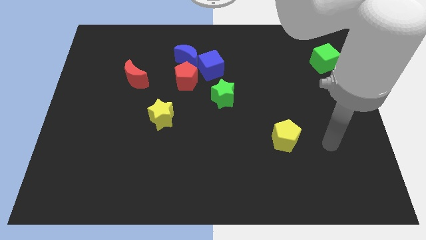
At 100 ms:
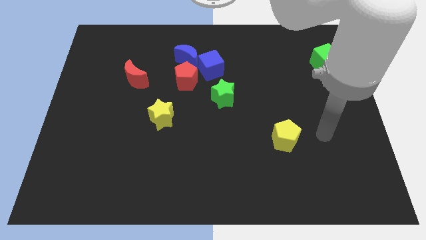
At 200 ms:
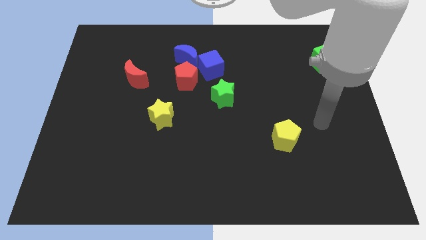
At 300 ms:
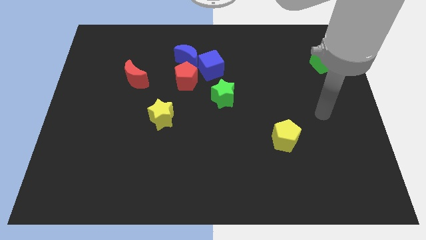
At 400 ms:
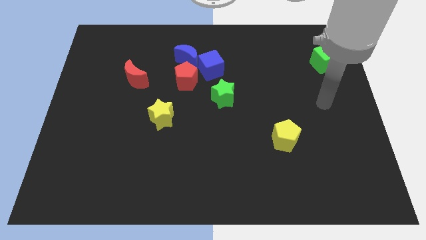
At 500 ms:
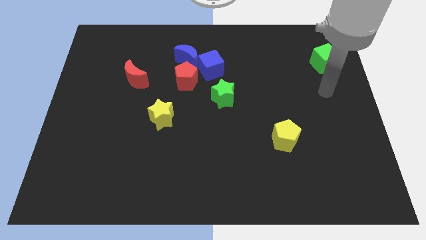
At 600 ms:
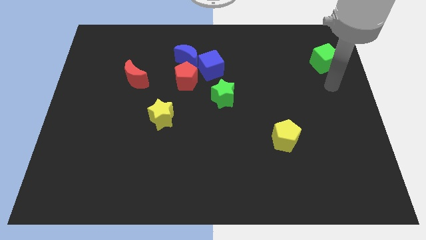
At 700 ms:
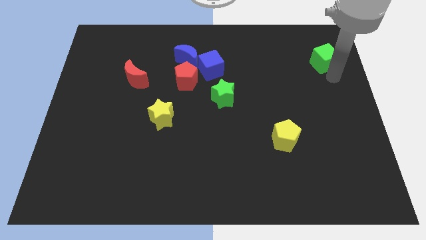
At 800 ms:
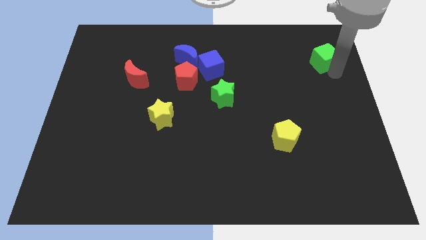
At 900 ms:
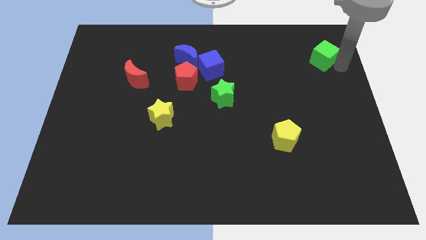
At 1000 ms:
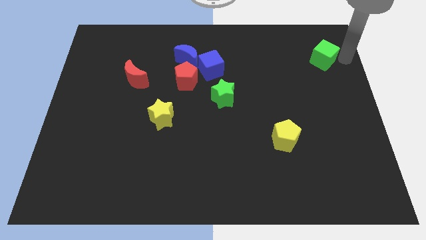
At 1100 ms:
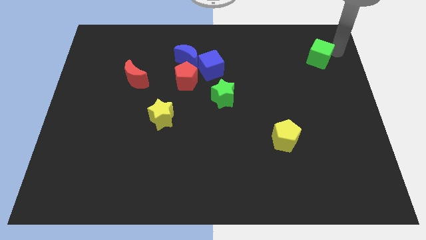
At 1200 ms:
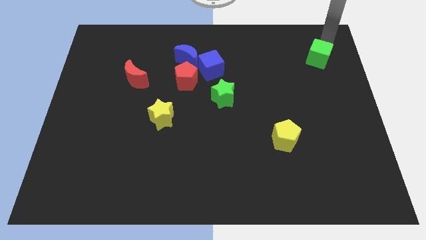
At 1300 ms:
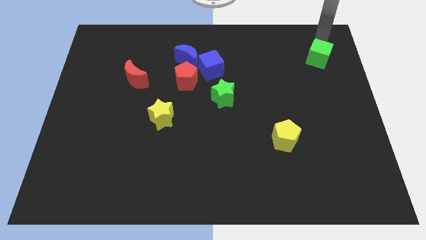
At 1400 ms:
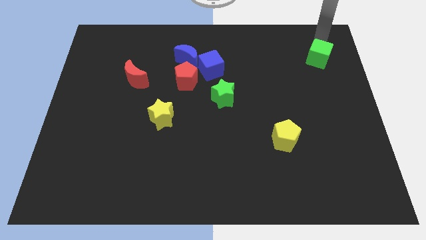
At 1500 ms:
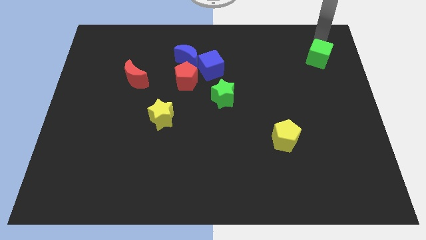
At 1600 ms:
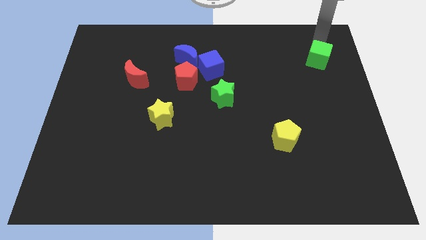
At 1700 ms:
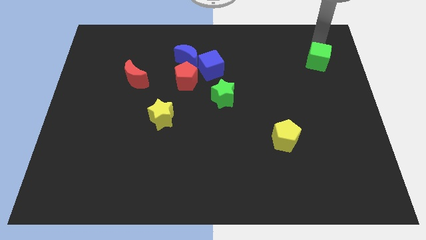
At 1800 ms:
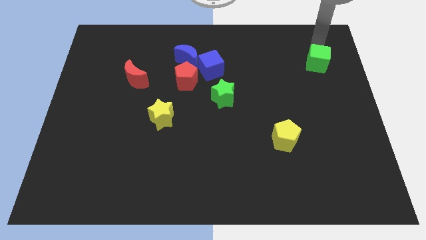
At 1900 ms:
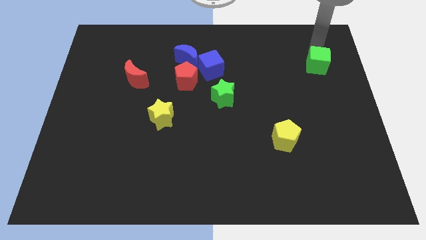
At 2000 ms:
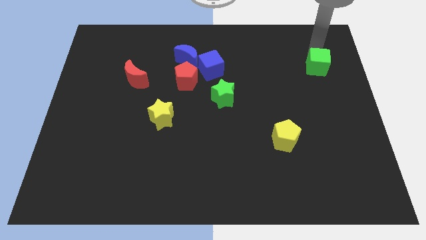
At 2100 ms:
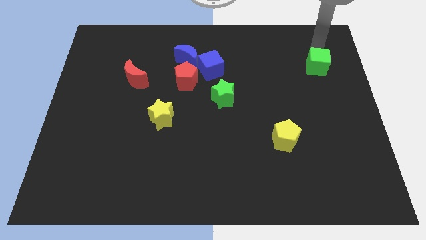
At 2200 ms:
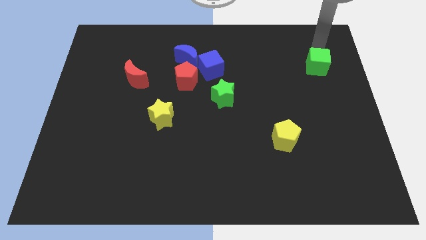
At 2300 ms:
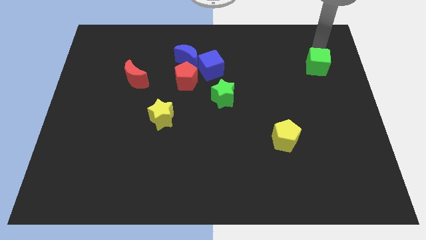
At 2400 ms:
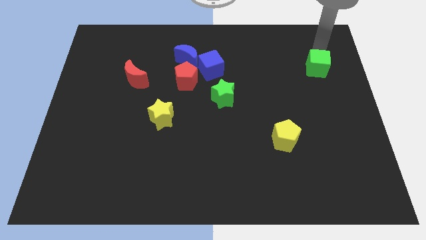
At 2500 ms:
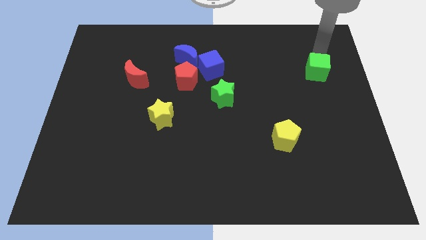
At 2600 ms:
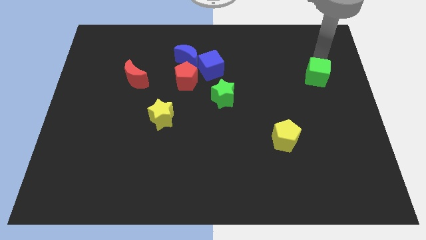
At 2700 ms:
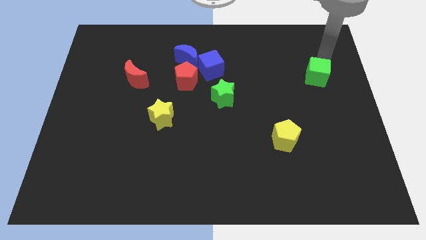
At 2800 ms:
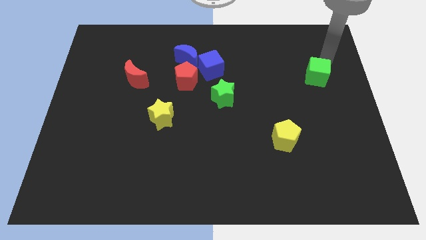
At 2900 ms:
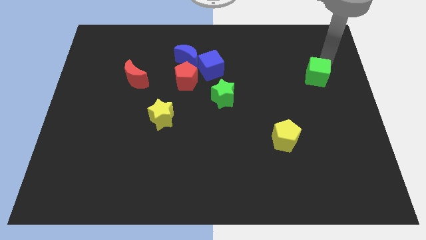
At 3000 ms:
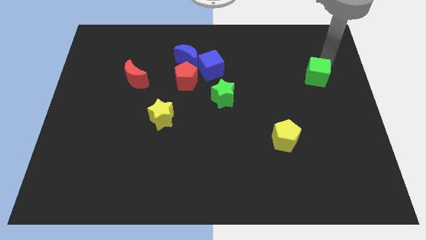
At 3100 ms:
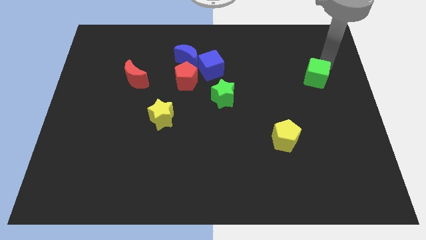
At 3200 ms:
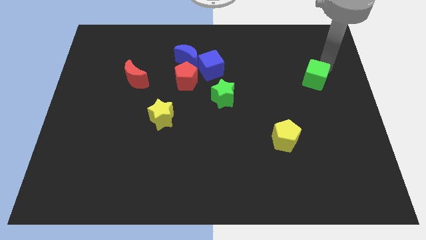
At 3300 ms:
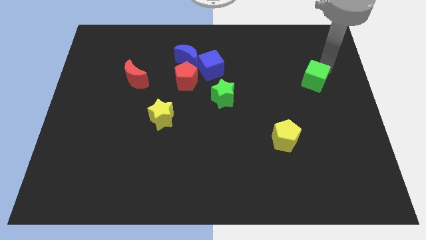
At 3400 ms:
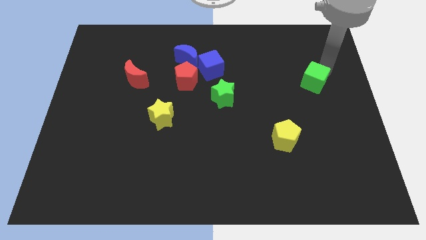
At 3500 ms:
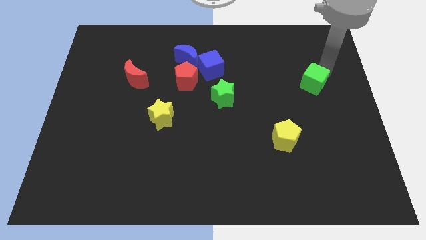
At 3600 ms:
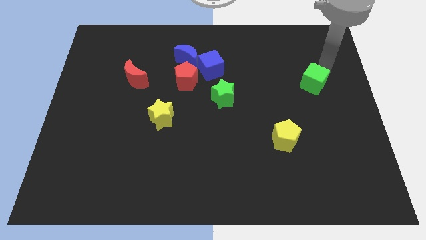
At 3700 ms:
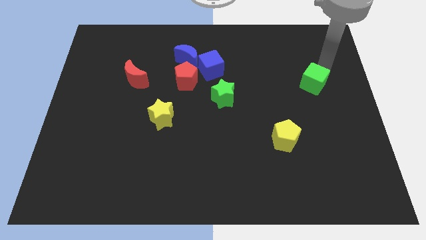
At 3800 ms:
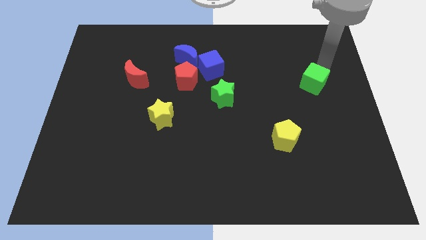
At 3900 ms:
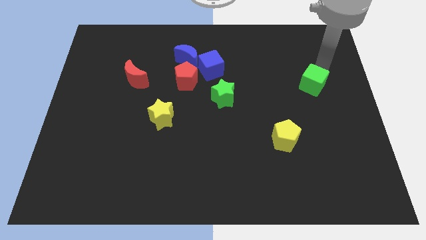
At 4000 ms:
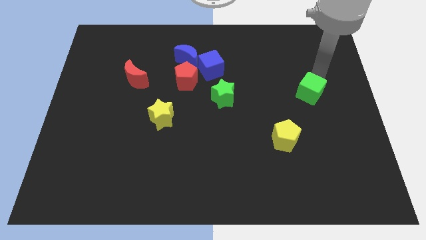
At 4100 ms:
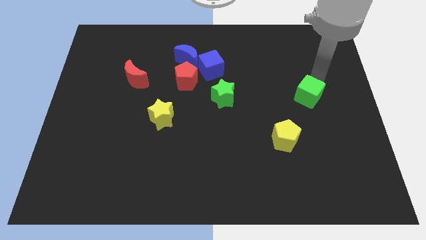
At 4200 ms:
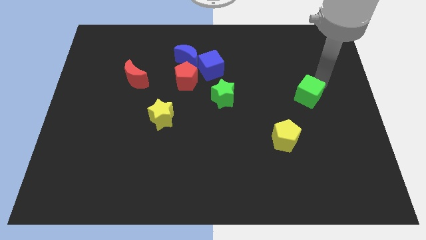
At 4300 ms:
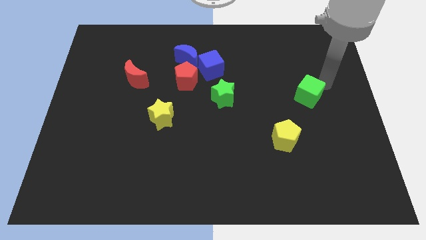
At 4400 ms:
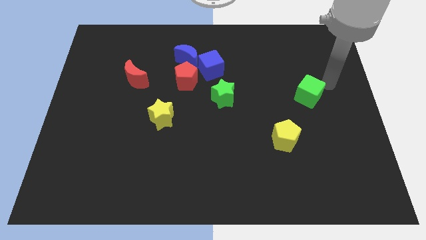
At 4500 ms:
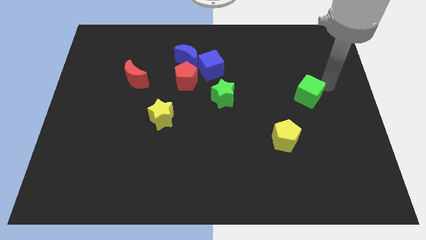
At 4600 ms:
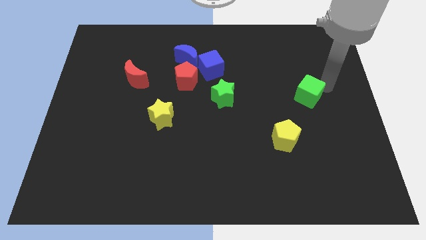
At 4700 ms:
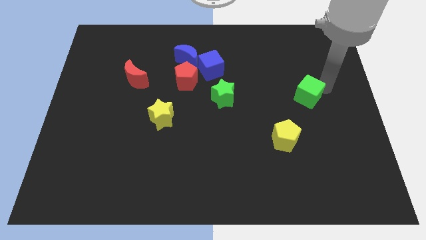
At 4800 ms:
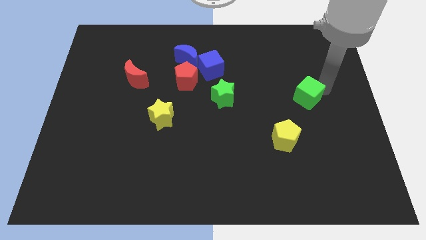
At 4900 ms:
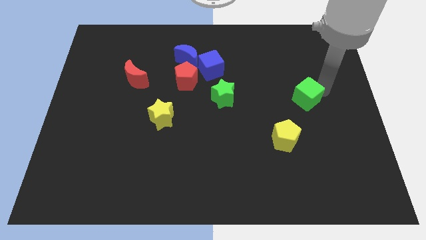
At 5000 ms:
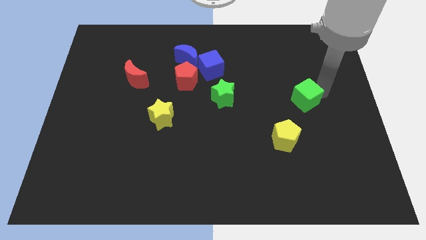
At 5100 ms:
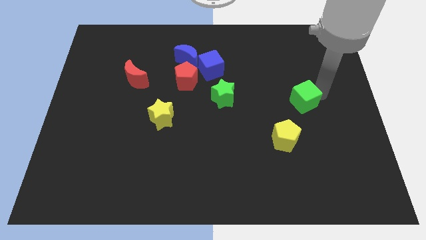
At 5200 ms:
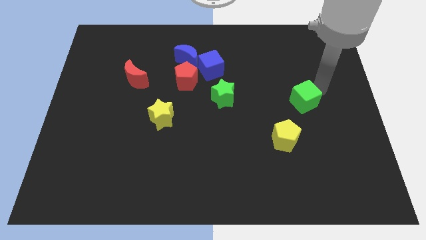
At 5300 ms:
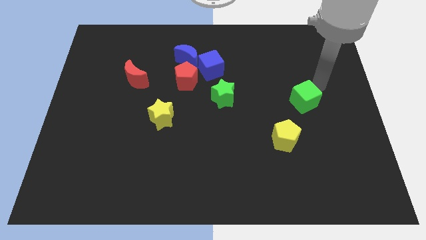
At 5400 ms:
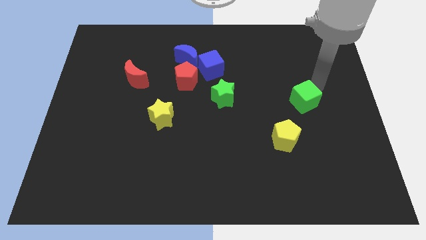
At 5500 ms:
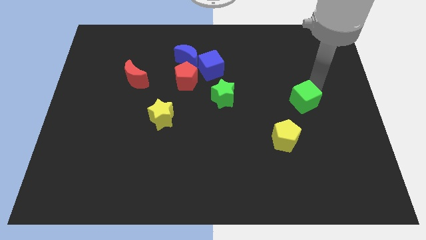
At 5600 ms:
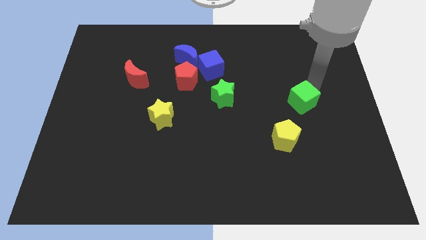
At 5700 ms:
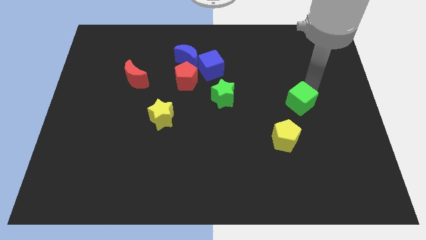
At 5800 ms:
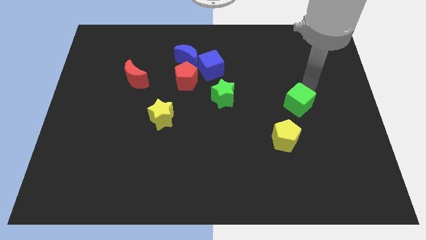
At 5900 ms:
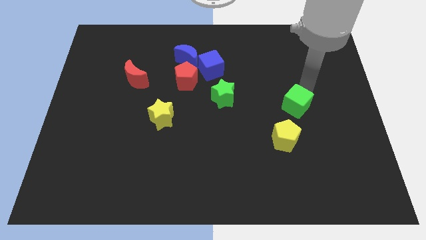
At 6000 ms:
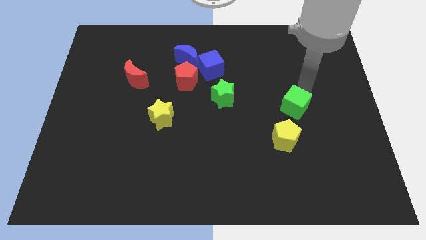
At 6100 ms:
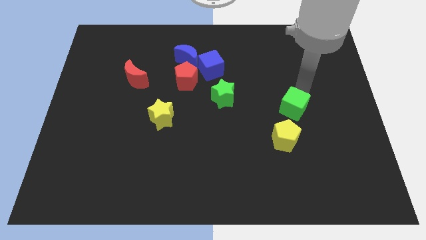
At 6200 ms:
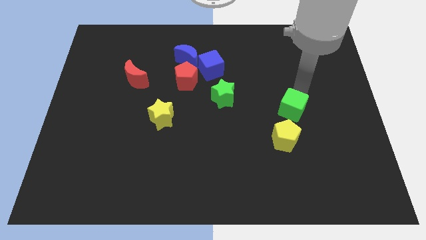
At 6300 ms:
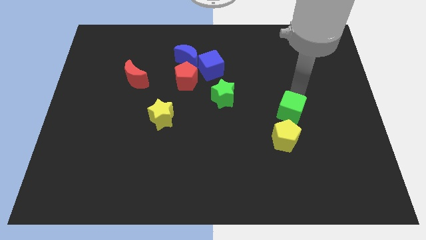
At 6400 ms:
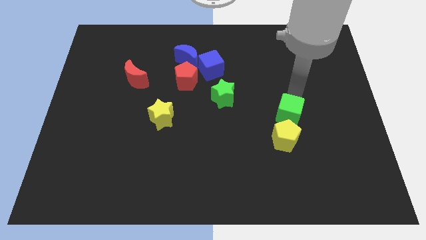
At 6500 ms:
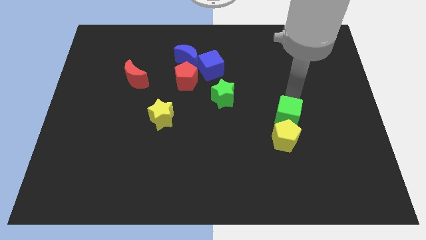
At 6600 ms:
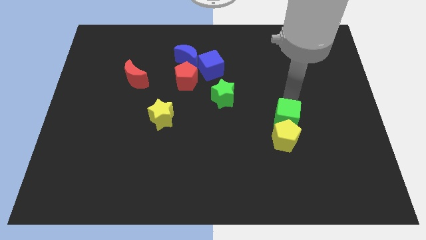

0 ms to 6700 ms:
move the green cube next to the yellow pentagon

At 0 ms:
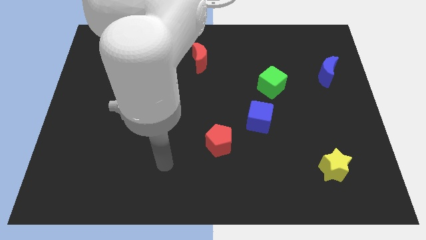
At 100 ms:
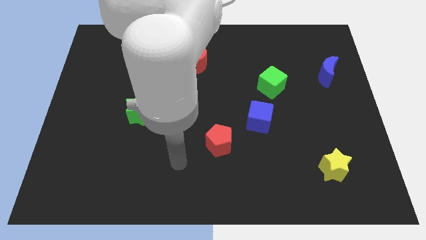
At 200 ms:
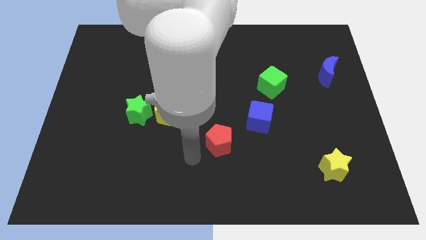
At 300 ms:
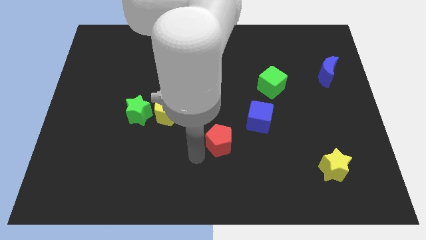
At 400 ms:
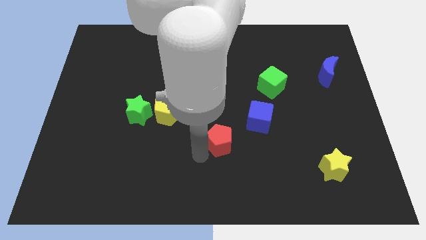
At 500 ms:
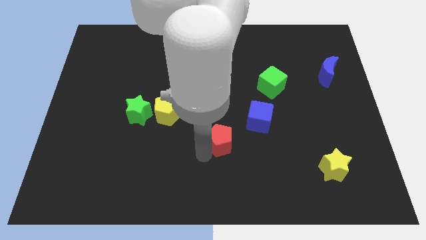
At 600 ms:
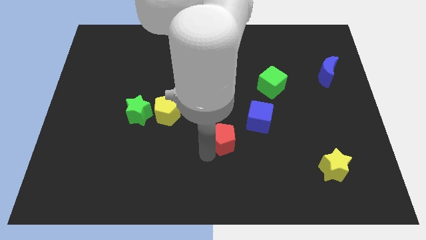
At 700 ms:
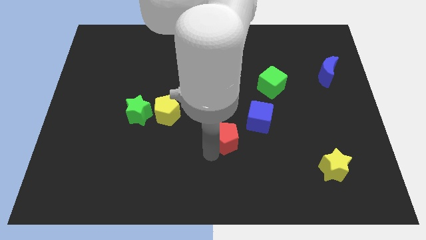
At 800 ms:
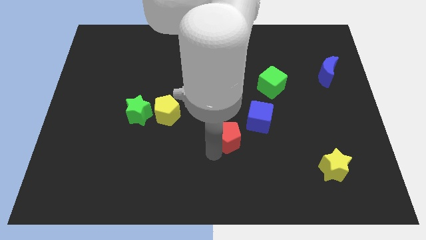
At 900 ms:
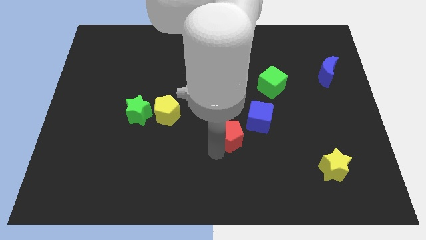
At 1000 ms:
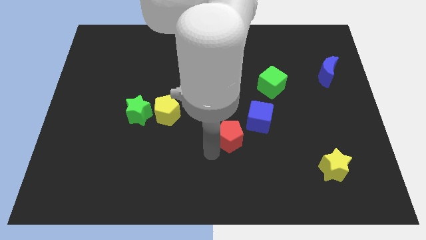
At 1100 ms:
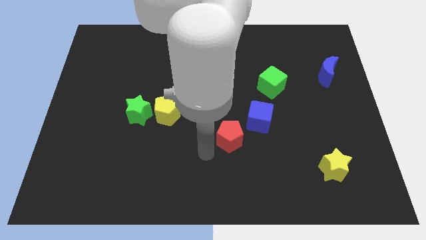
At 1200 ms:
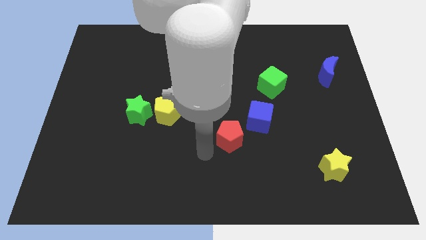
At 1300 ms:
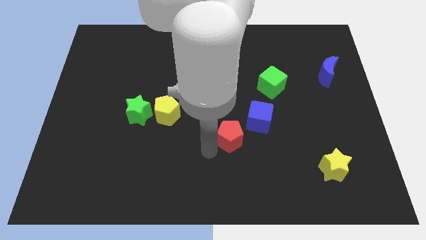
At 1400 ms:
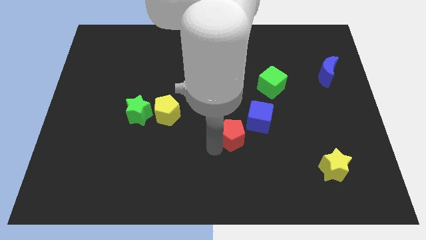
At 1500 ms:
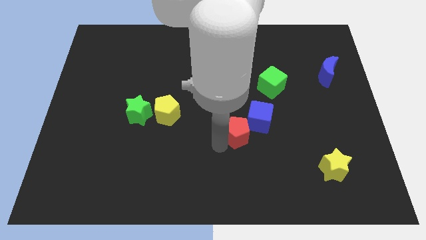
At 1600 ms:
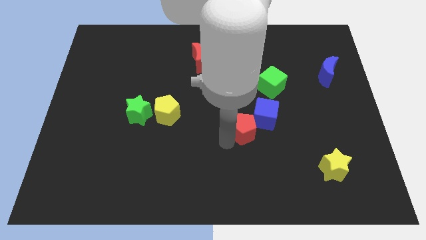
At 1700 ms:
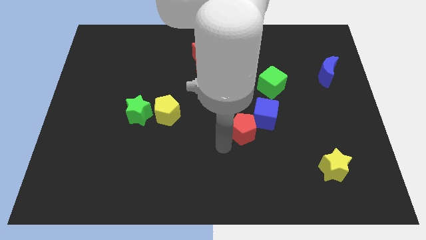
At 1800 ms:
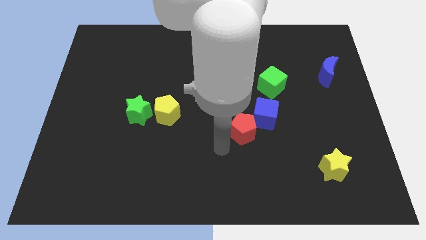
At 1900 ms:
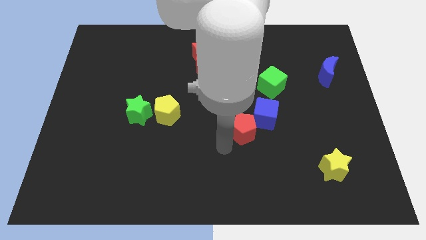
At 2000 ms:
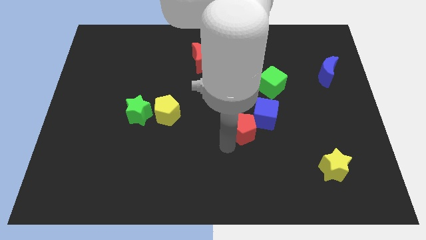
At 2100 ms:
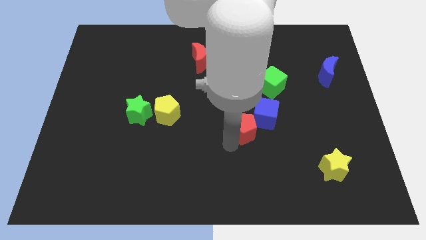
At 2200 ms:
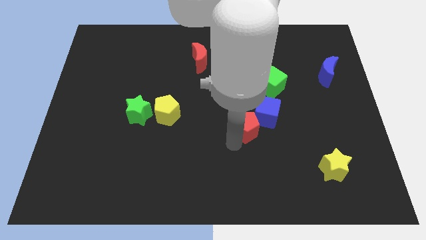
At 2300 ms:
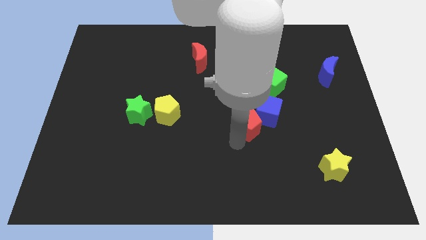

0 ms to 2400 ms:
move the red pentagon to the blue cube
